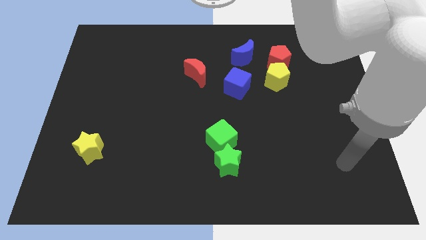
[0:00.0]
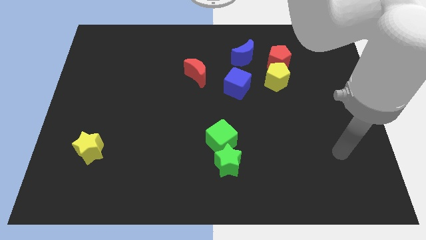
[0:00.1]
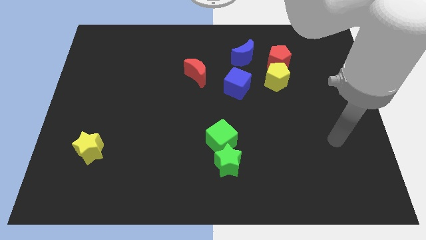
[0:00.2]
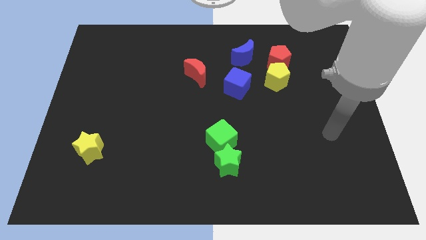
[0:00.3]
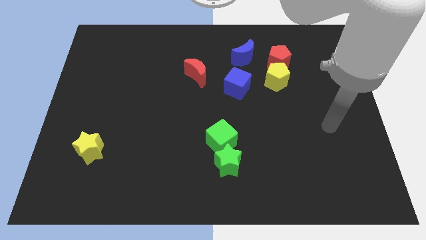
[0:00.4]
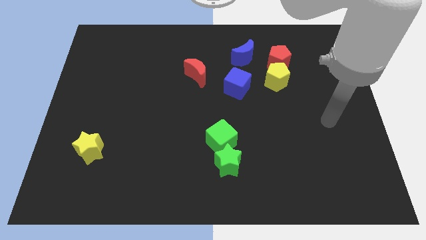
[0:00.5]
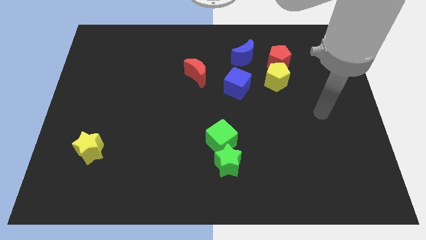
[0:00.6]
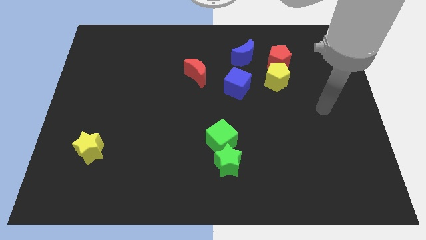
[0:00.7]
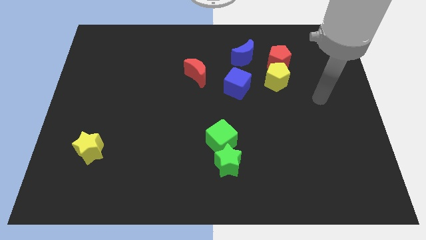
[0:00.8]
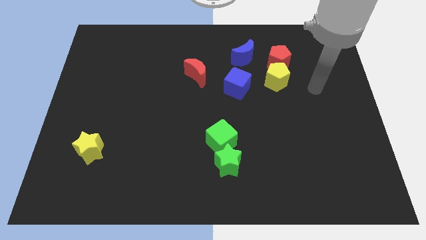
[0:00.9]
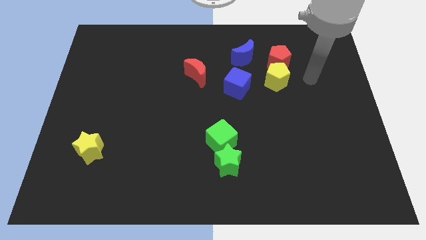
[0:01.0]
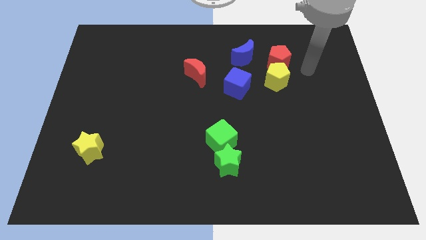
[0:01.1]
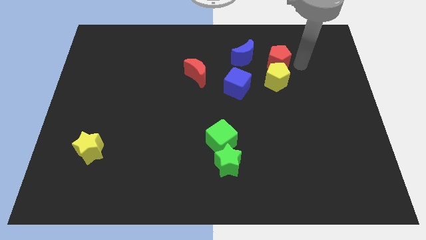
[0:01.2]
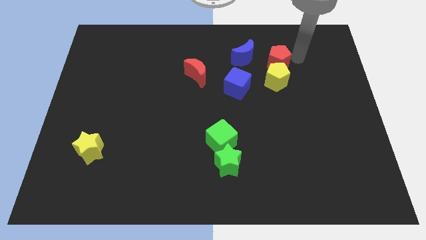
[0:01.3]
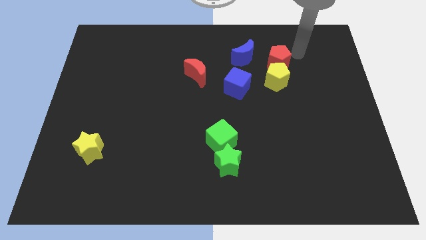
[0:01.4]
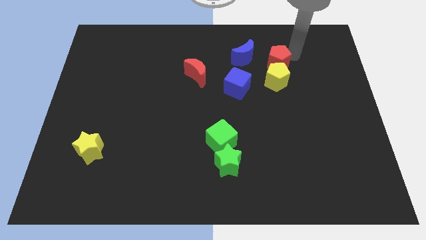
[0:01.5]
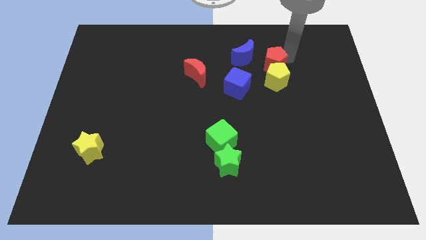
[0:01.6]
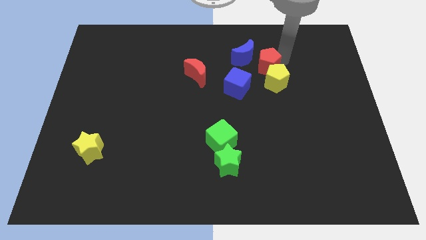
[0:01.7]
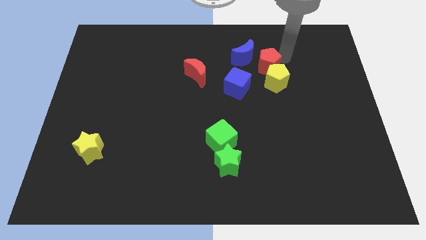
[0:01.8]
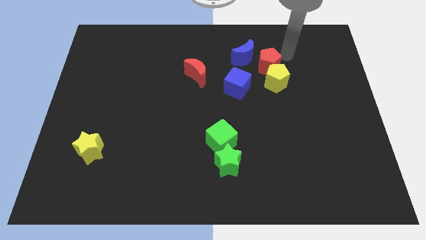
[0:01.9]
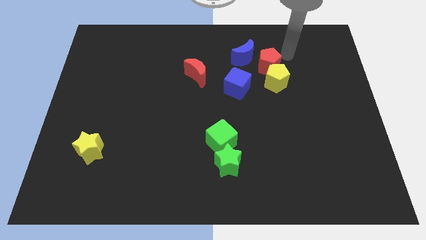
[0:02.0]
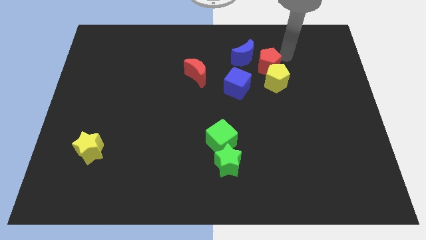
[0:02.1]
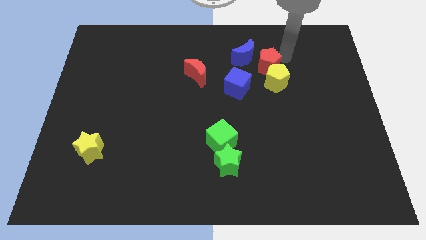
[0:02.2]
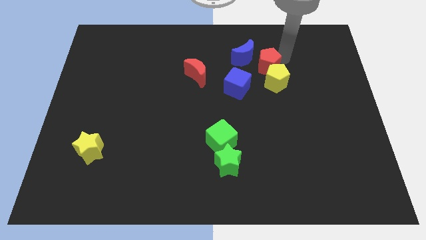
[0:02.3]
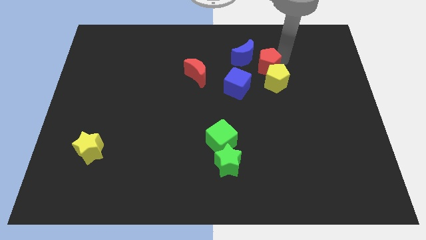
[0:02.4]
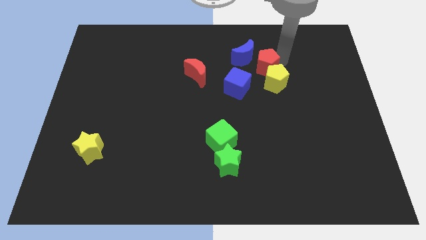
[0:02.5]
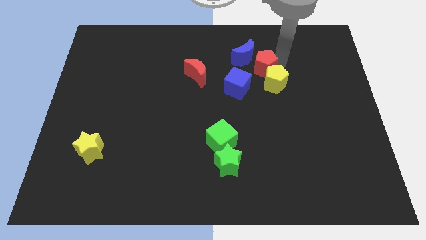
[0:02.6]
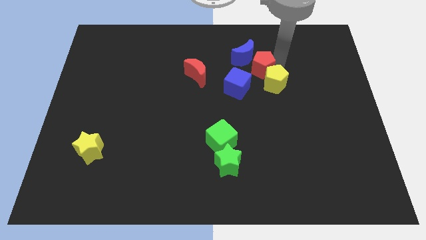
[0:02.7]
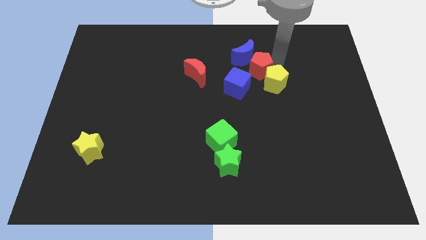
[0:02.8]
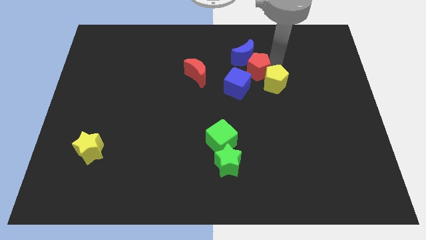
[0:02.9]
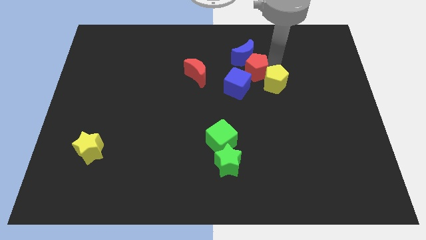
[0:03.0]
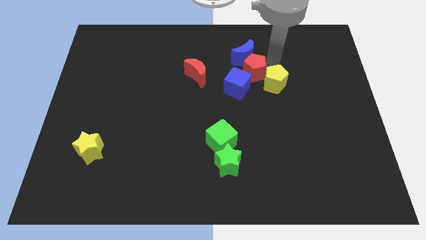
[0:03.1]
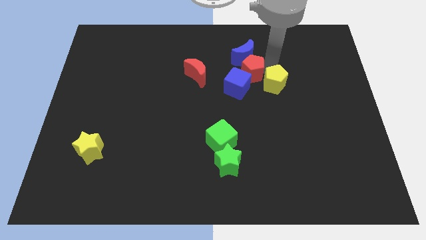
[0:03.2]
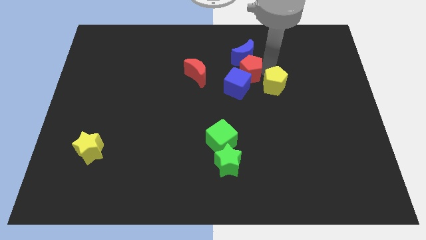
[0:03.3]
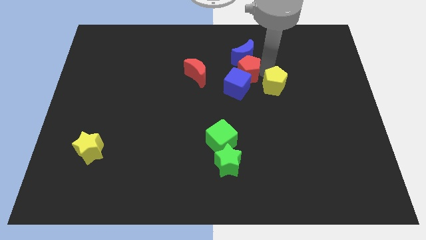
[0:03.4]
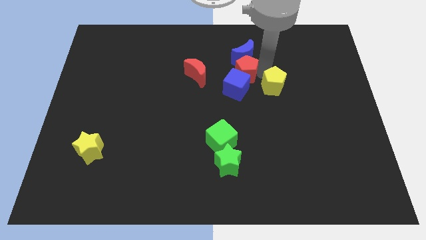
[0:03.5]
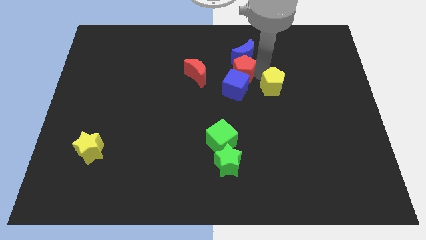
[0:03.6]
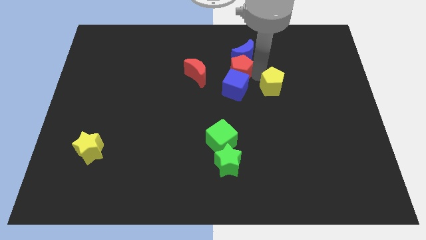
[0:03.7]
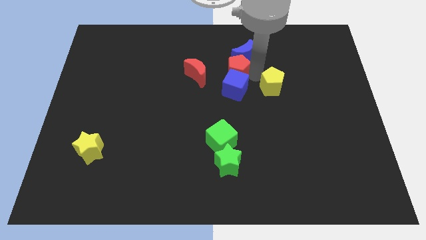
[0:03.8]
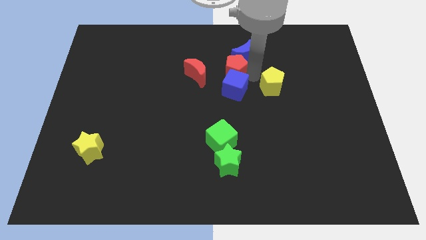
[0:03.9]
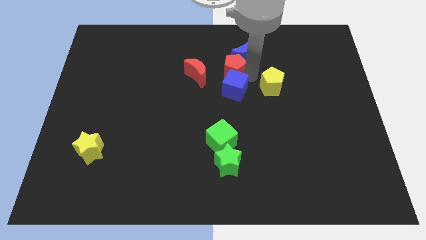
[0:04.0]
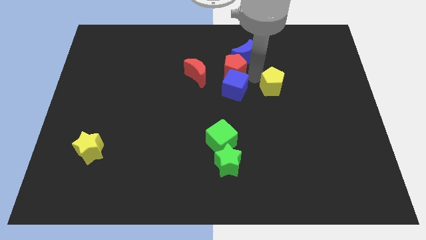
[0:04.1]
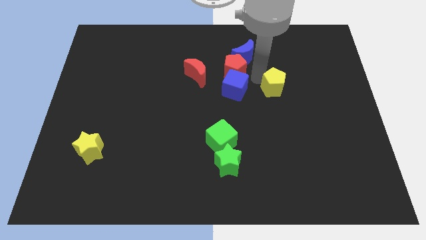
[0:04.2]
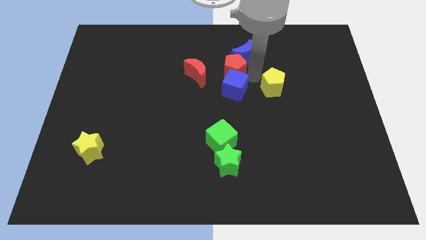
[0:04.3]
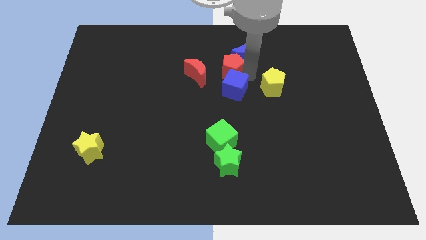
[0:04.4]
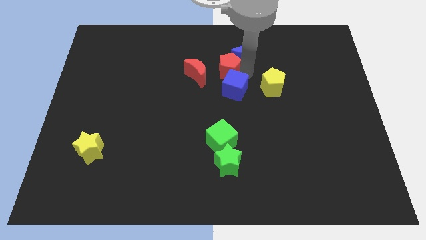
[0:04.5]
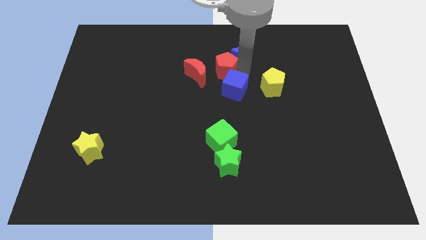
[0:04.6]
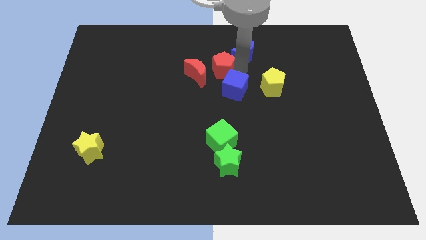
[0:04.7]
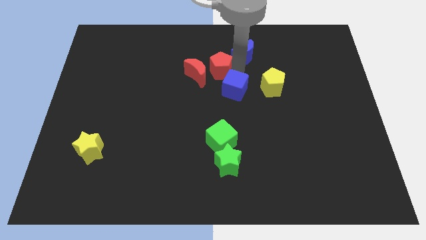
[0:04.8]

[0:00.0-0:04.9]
put the red pentagon close to the red moon

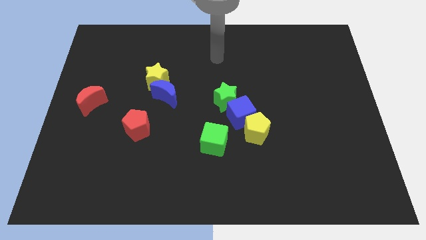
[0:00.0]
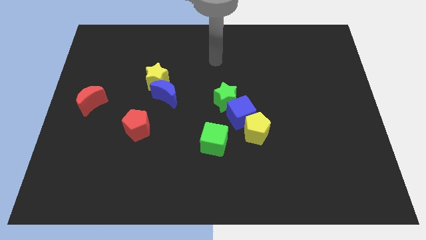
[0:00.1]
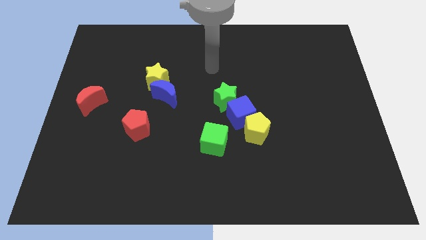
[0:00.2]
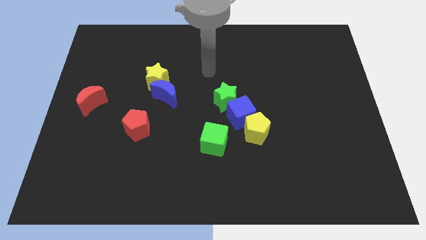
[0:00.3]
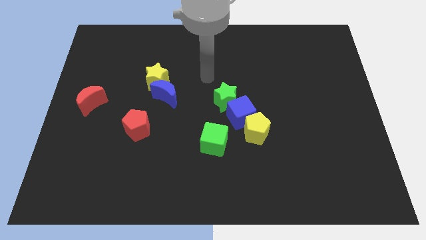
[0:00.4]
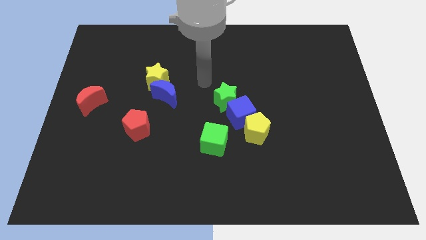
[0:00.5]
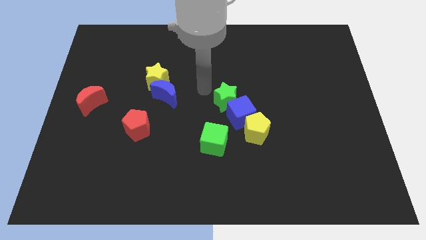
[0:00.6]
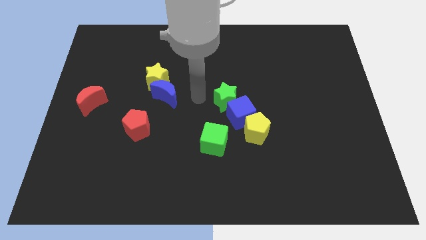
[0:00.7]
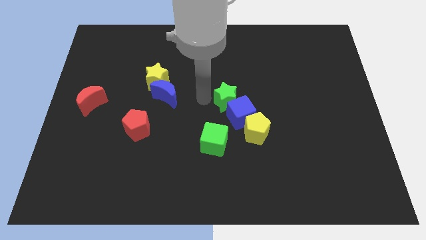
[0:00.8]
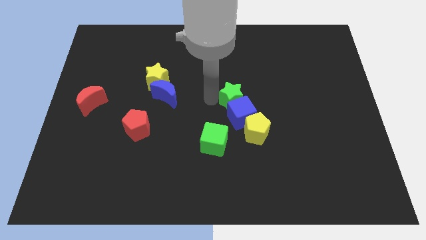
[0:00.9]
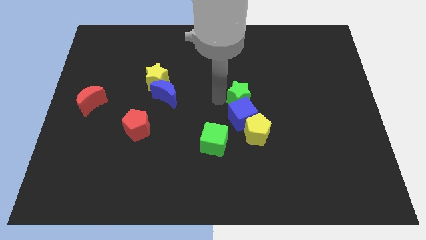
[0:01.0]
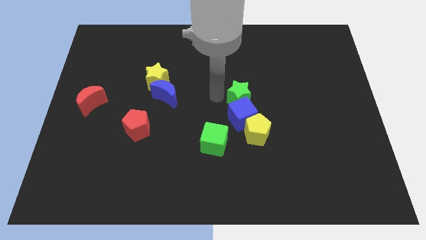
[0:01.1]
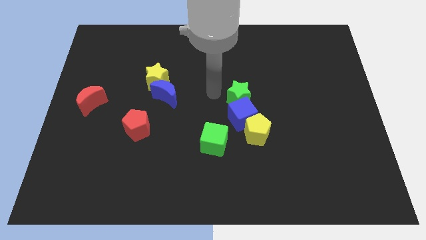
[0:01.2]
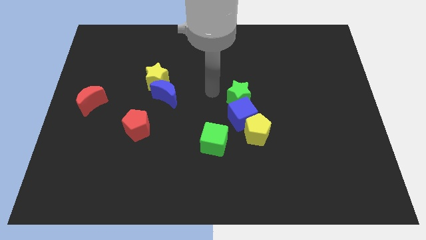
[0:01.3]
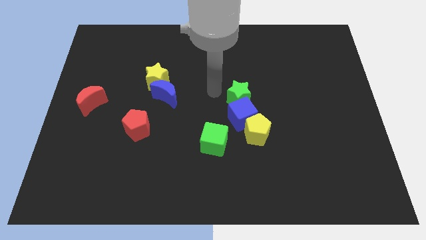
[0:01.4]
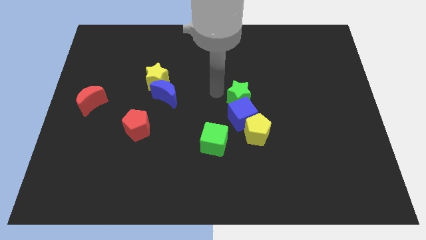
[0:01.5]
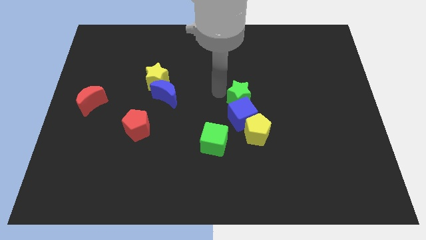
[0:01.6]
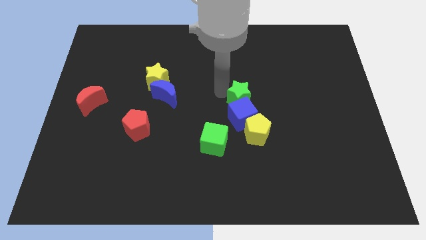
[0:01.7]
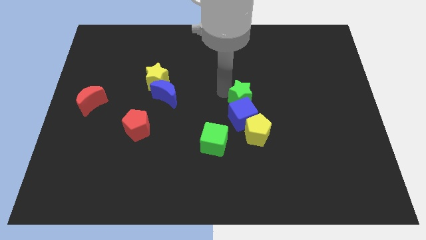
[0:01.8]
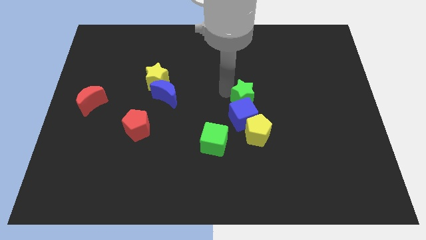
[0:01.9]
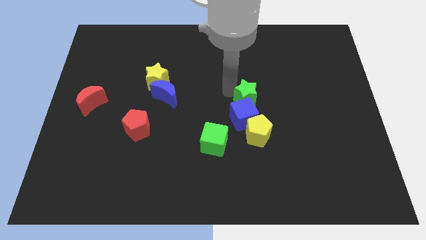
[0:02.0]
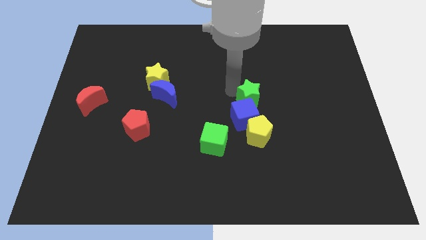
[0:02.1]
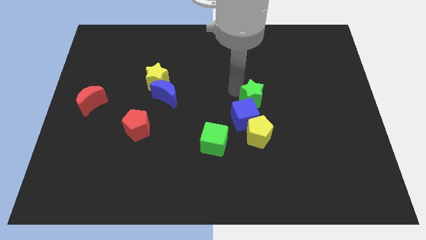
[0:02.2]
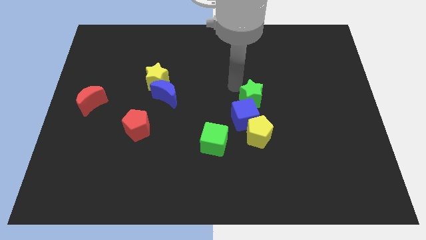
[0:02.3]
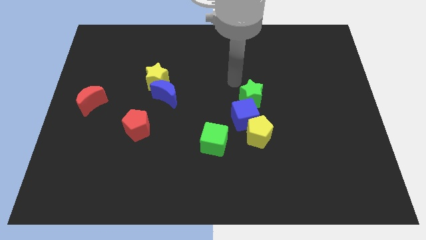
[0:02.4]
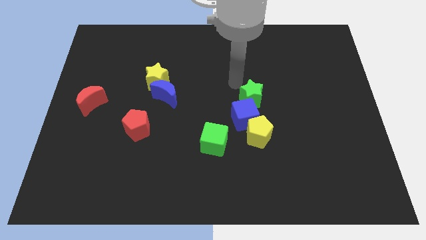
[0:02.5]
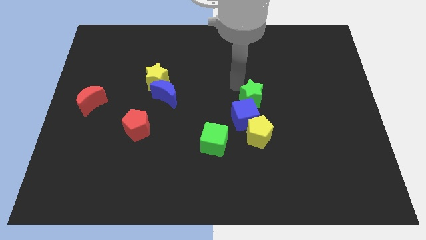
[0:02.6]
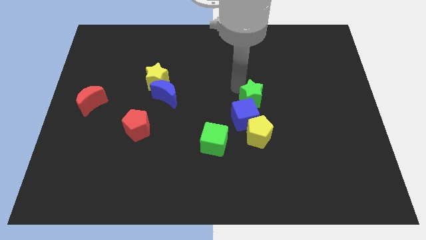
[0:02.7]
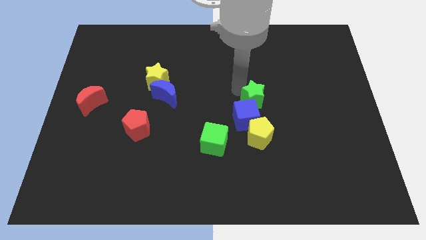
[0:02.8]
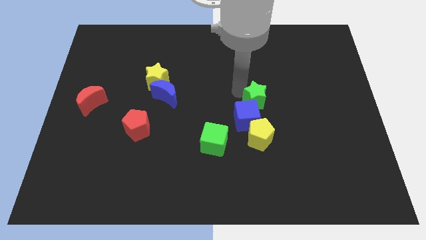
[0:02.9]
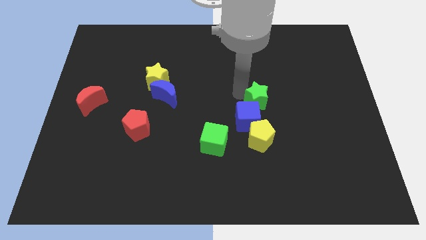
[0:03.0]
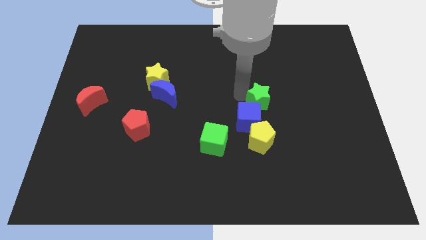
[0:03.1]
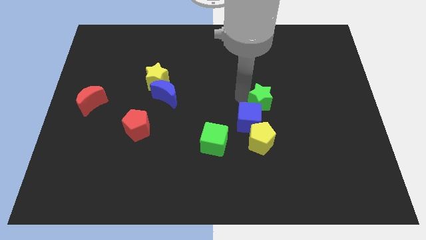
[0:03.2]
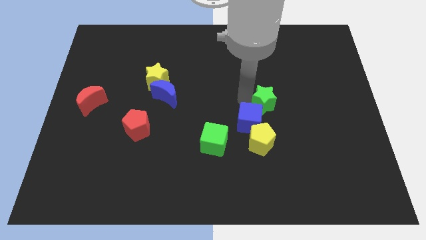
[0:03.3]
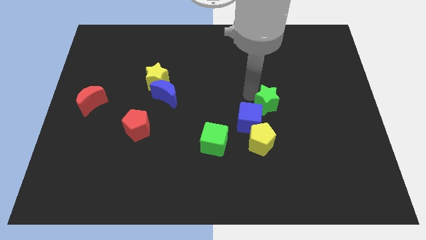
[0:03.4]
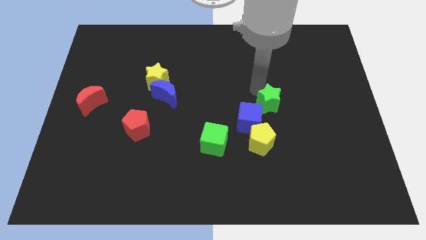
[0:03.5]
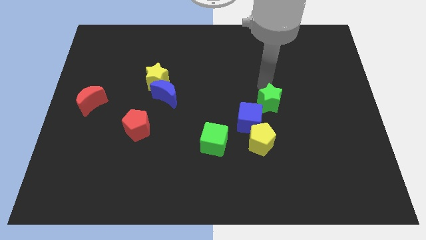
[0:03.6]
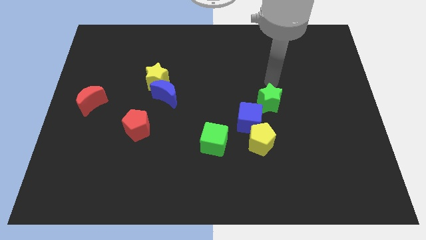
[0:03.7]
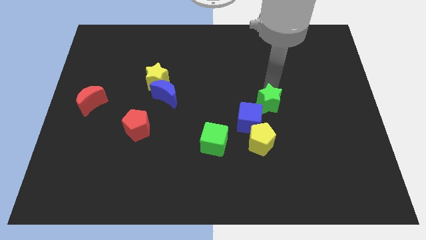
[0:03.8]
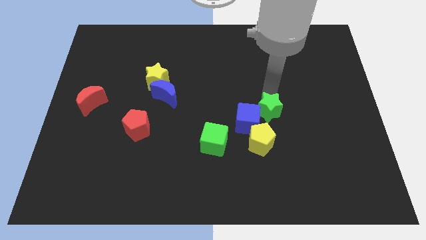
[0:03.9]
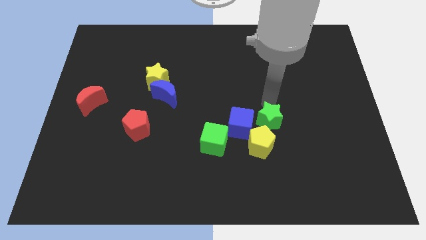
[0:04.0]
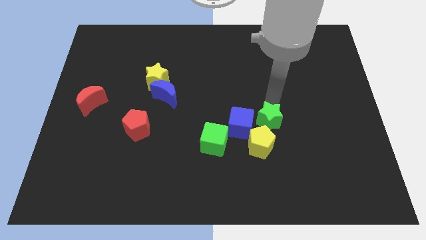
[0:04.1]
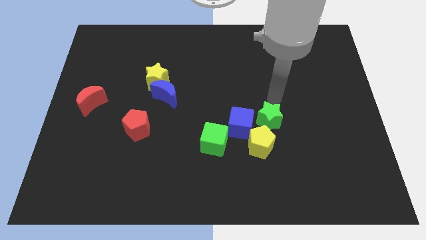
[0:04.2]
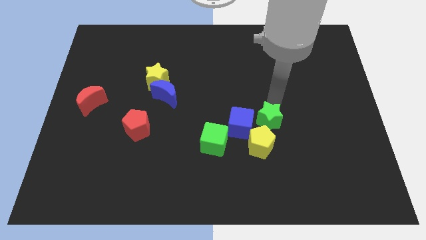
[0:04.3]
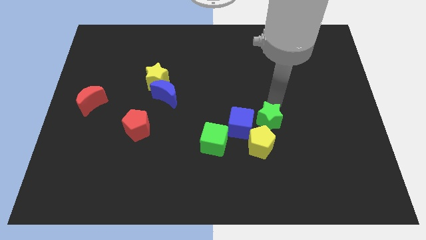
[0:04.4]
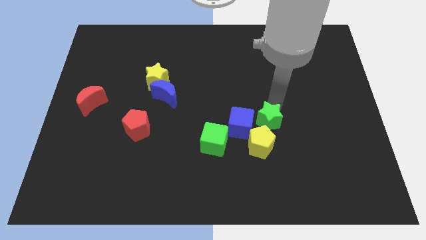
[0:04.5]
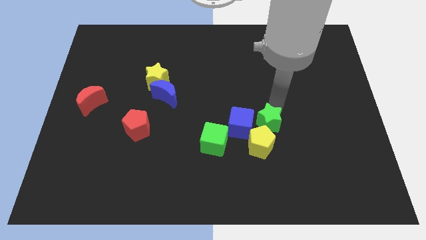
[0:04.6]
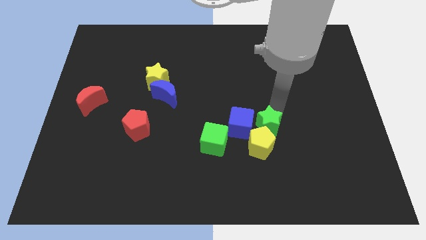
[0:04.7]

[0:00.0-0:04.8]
push the green star next to the yellow pentagon
